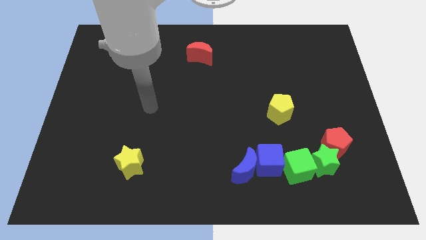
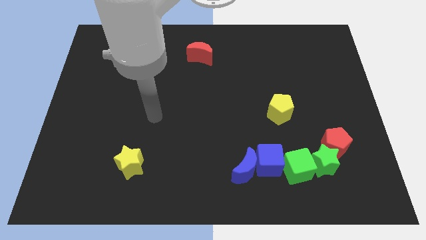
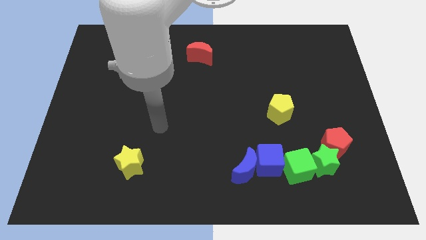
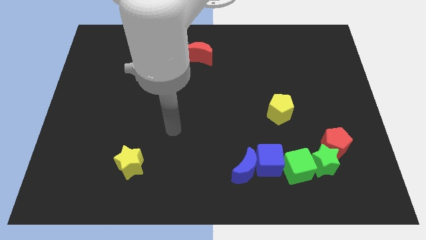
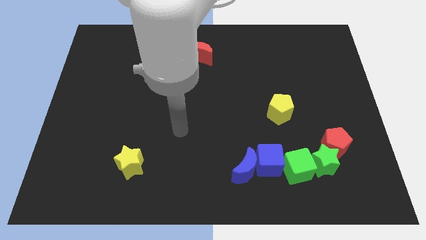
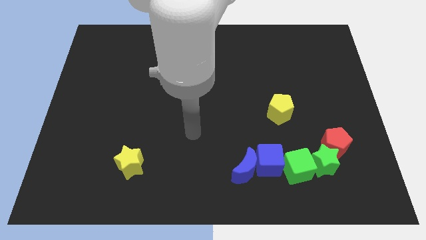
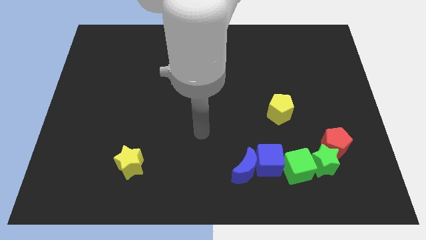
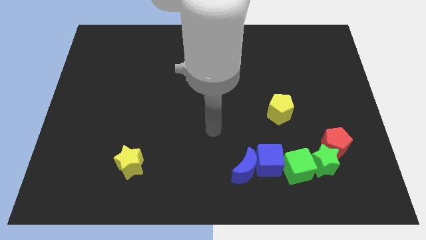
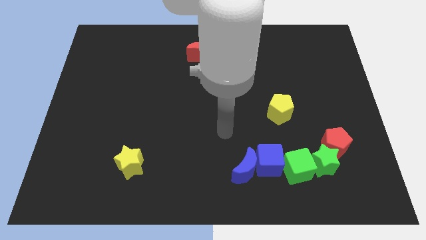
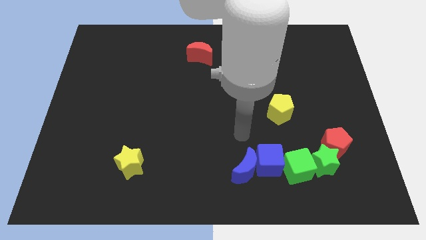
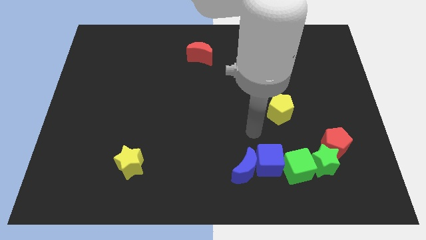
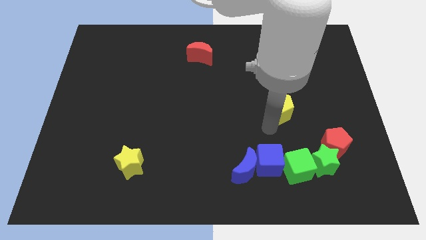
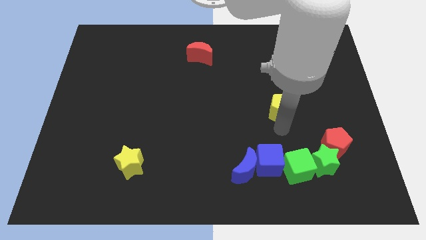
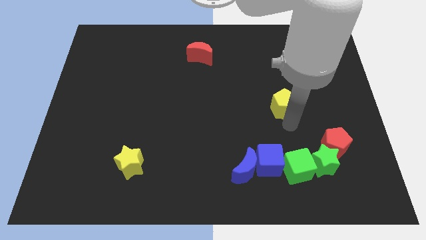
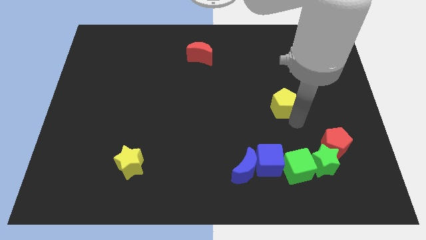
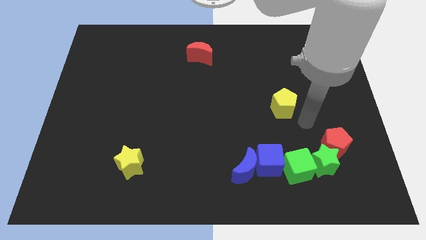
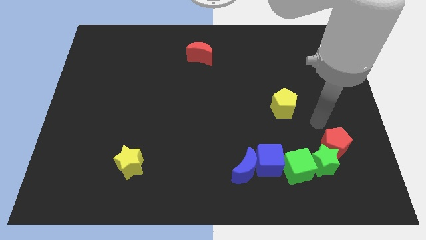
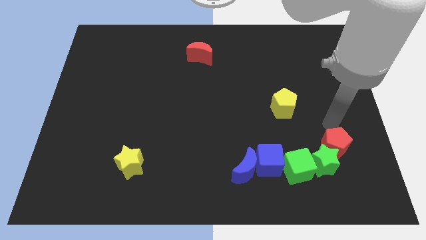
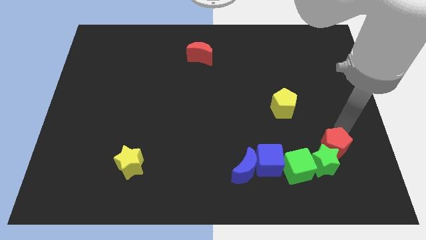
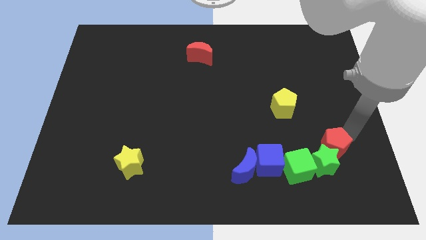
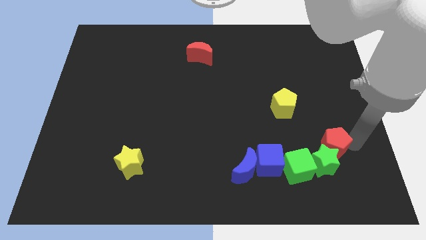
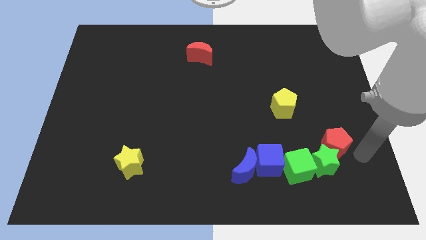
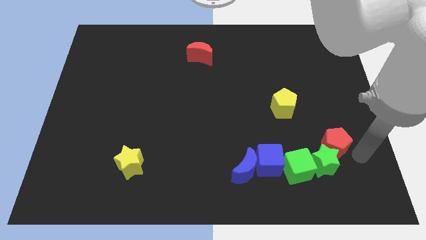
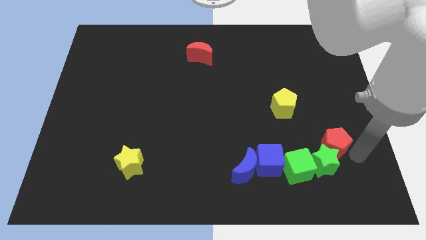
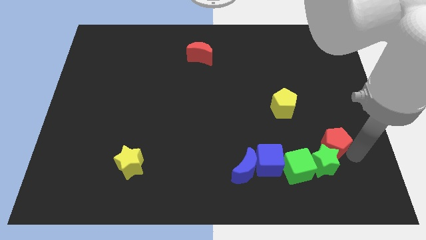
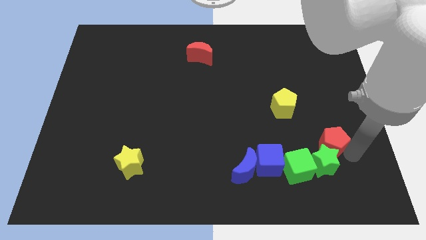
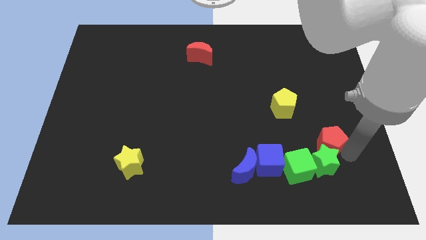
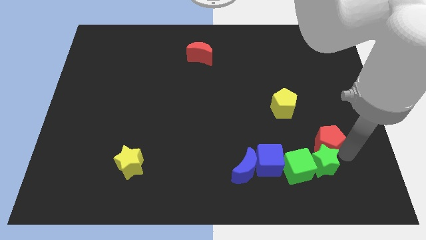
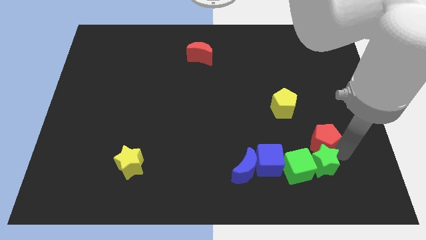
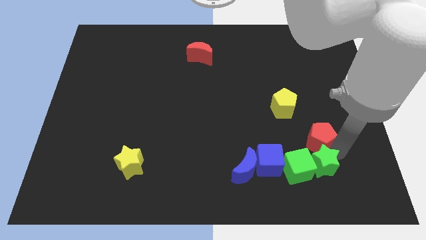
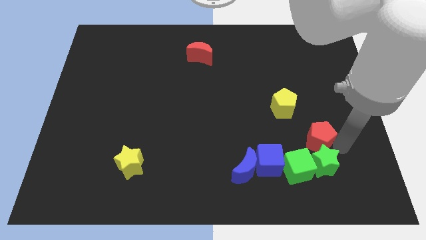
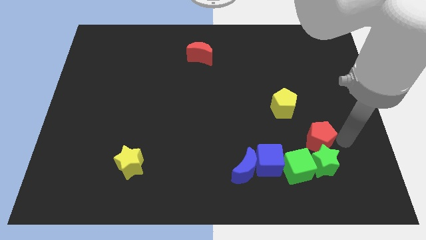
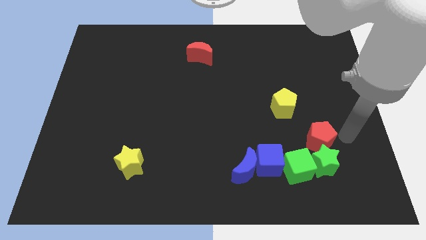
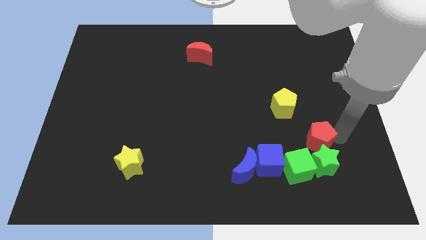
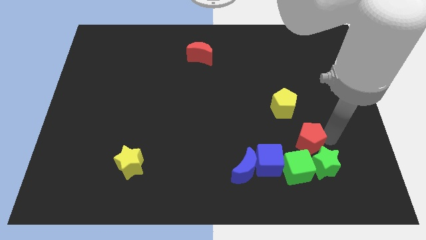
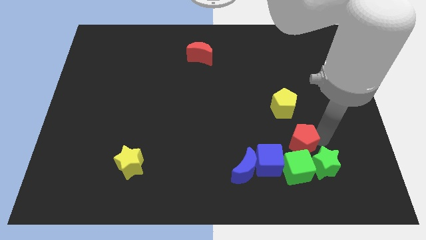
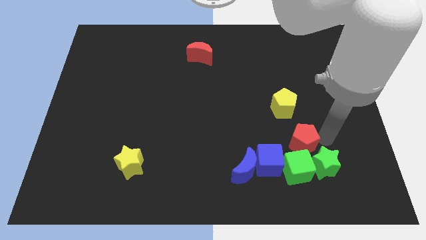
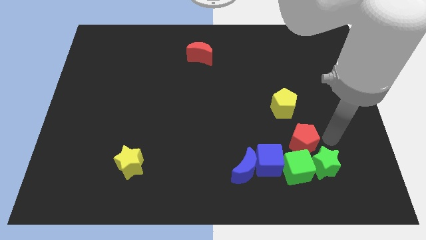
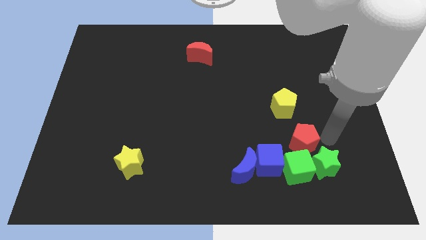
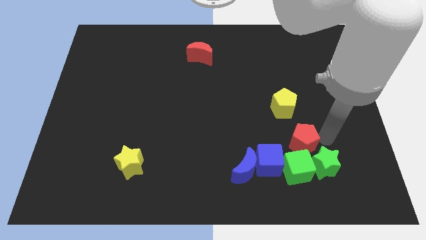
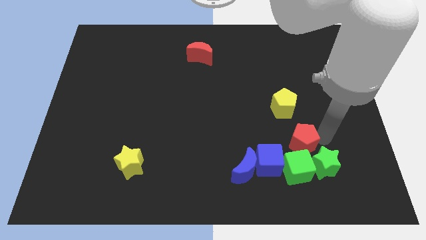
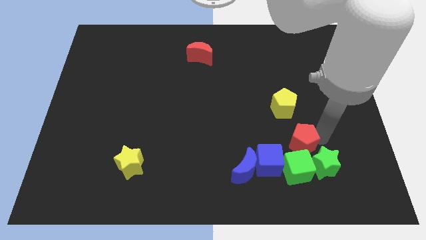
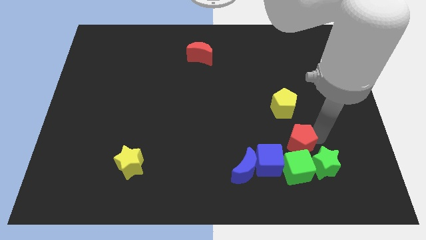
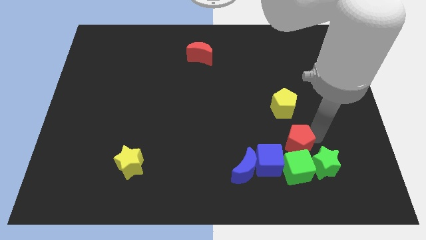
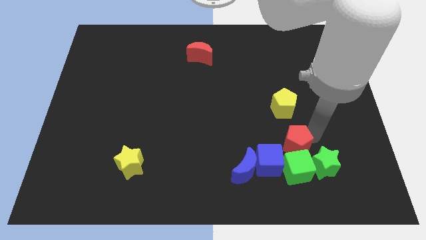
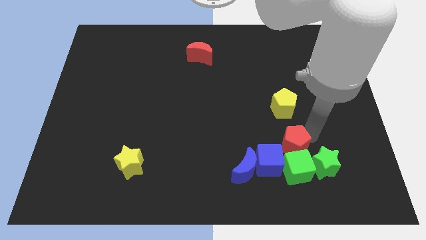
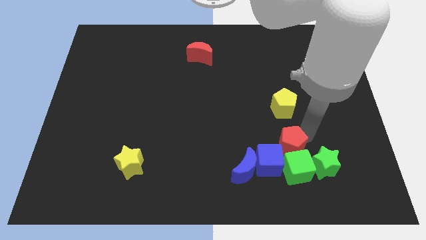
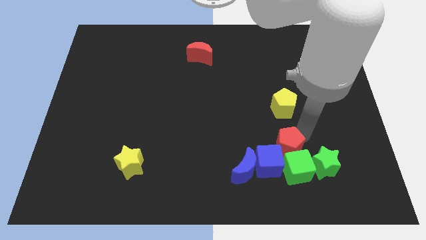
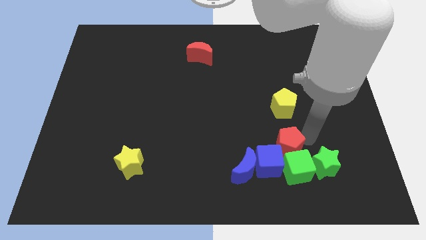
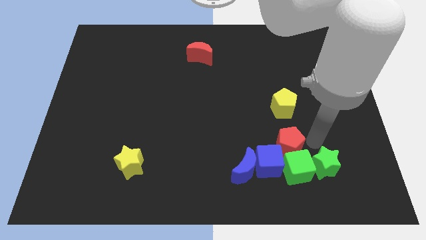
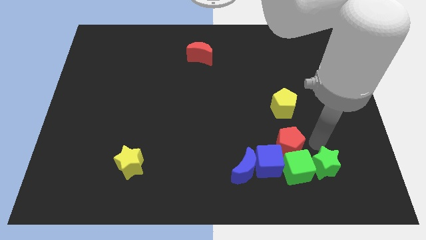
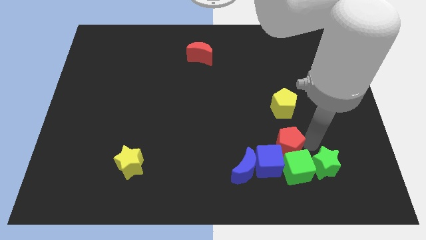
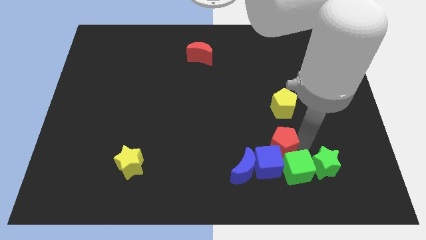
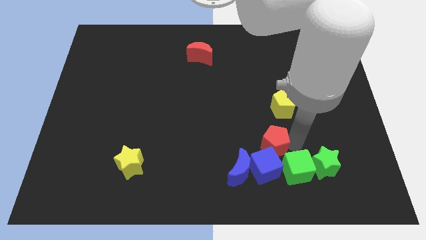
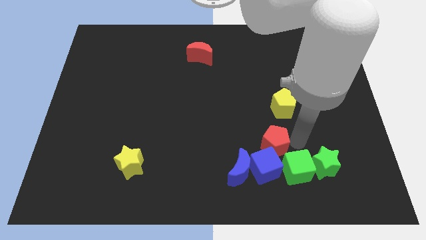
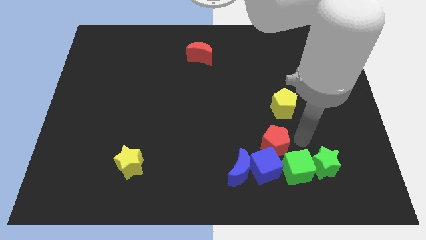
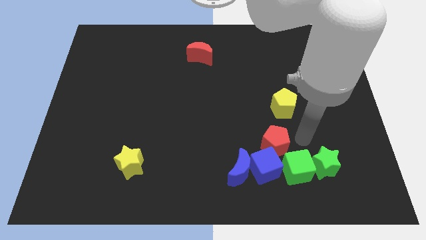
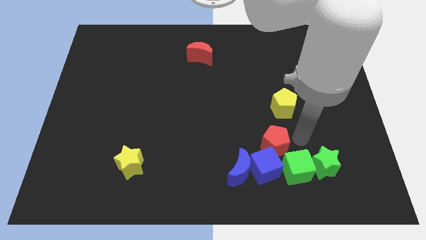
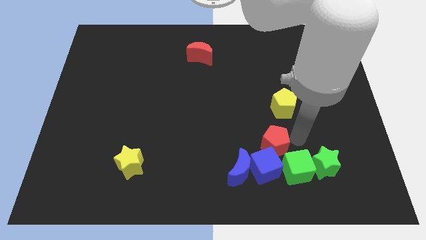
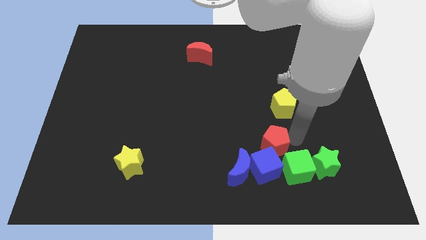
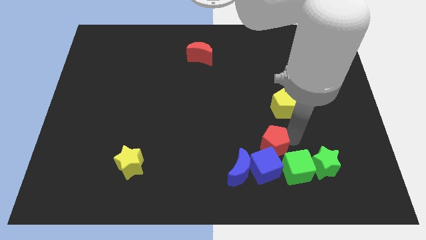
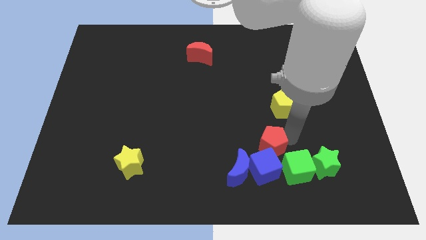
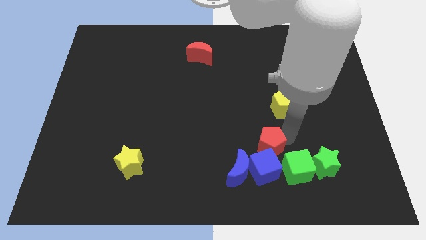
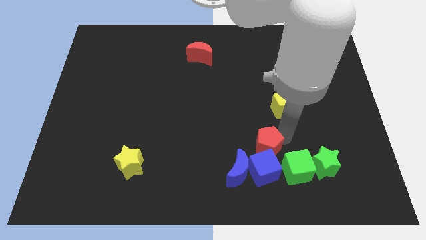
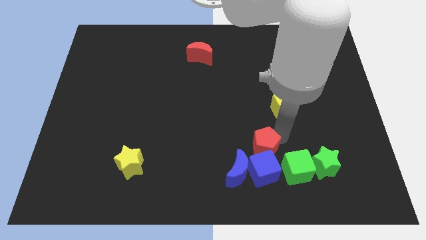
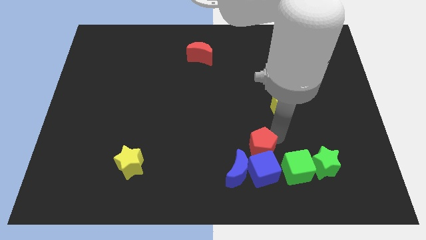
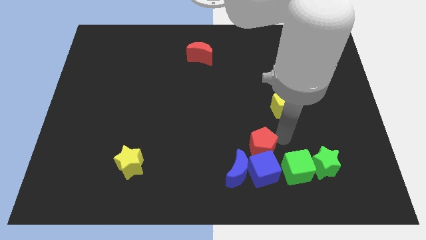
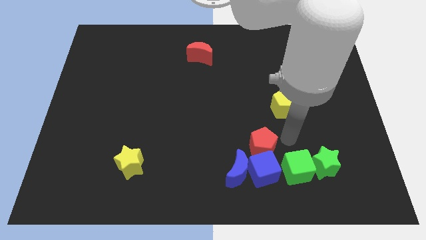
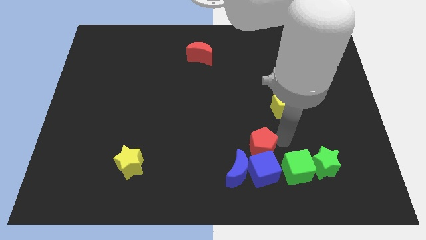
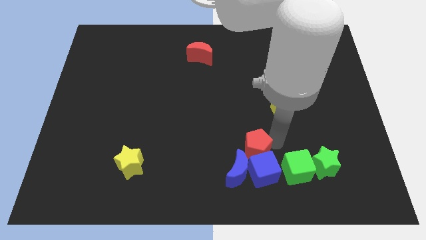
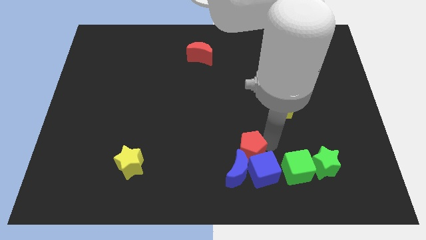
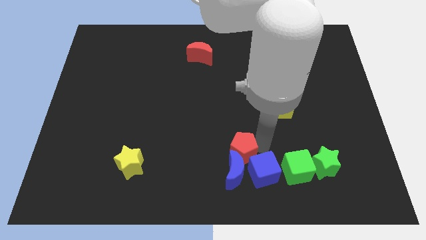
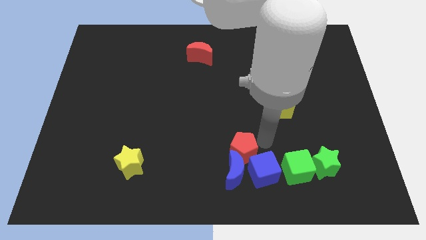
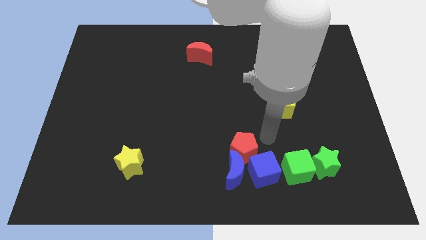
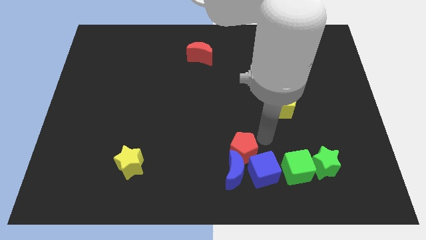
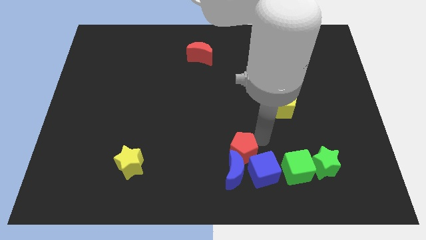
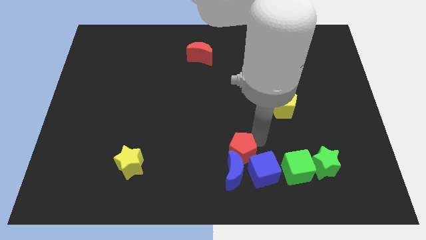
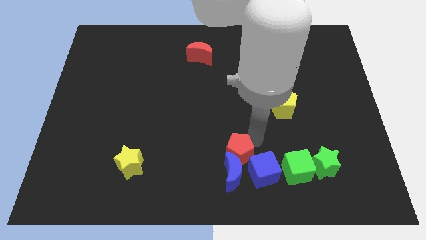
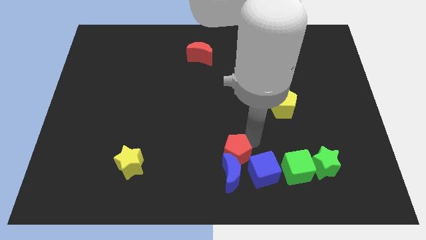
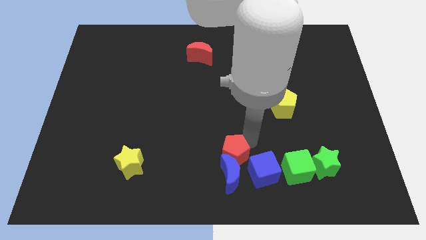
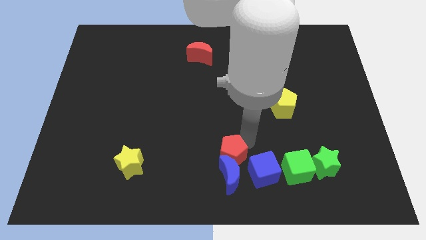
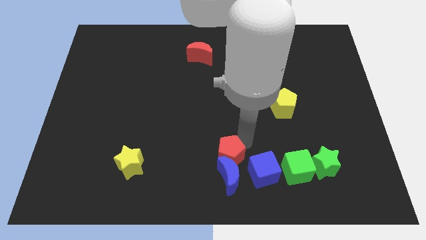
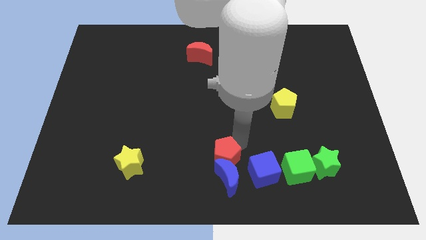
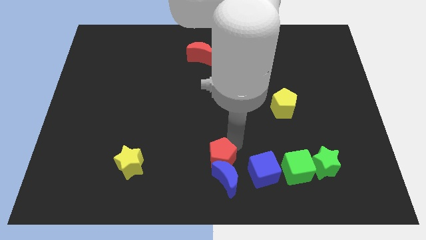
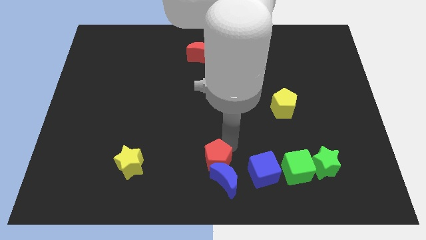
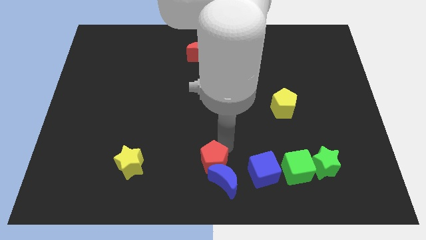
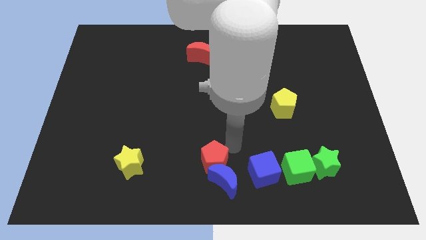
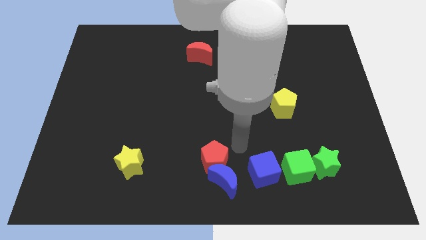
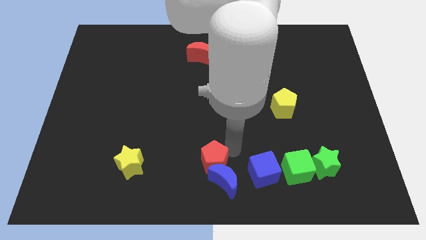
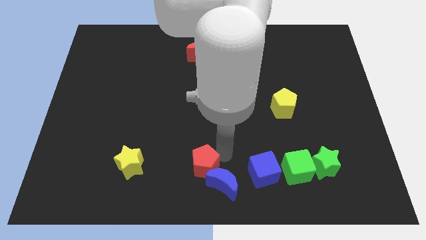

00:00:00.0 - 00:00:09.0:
push the red pentagon to the left of the blue moon
